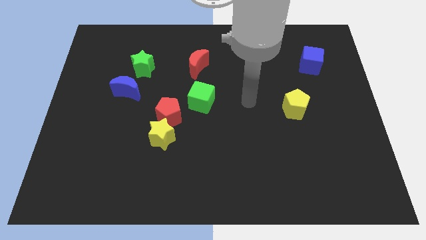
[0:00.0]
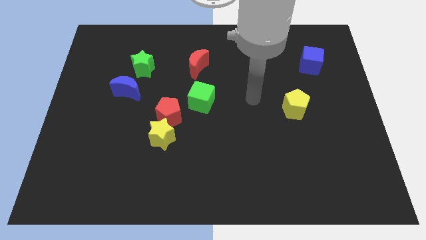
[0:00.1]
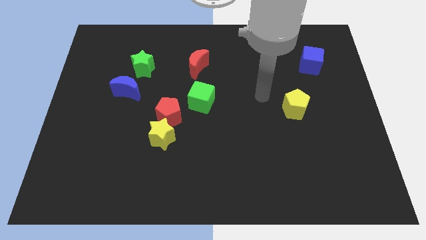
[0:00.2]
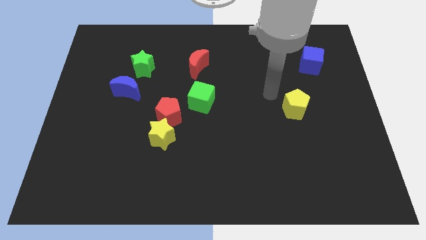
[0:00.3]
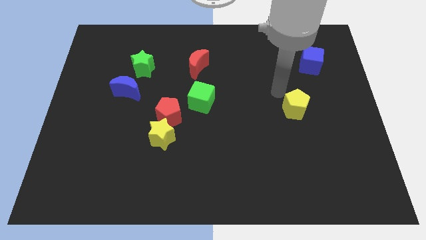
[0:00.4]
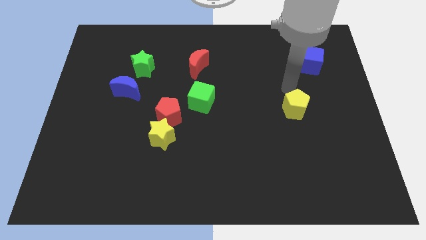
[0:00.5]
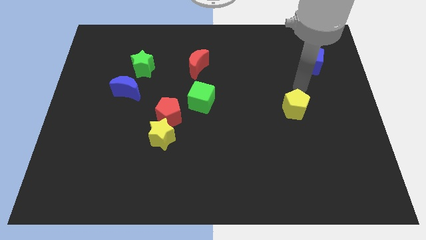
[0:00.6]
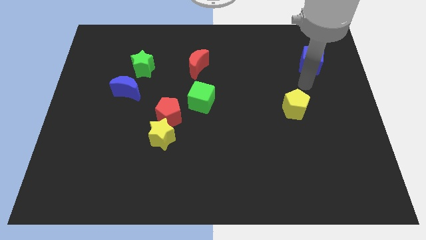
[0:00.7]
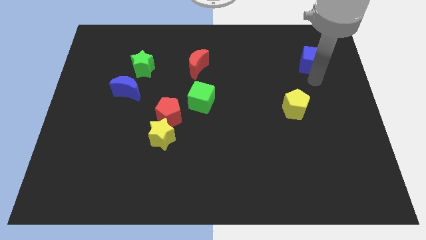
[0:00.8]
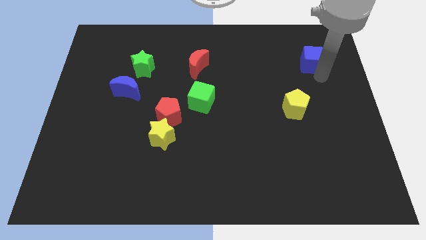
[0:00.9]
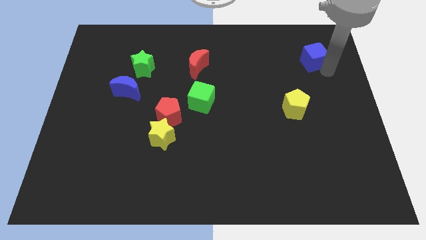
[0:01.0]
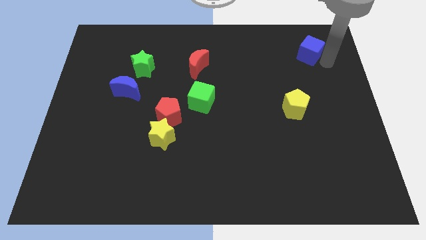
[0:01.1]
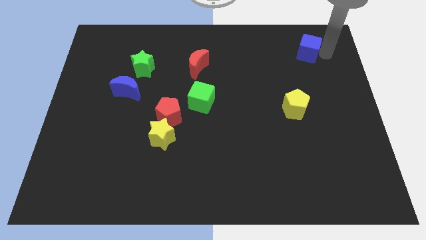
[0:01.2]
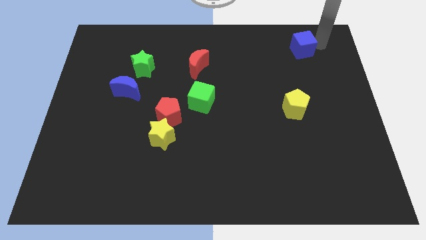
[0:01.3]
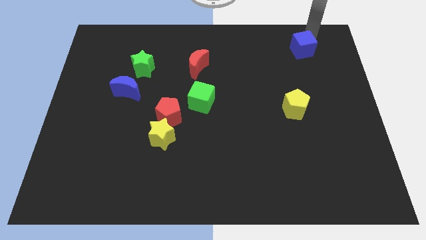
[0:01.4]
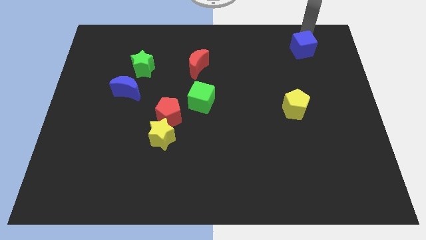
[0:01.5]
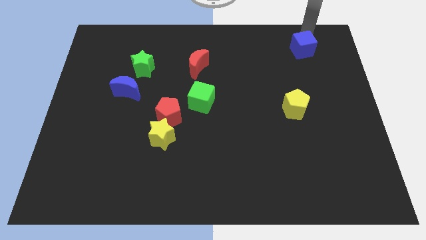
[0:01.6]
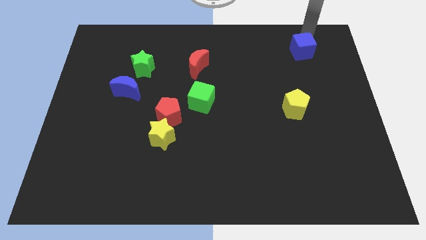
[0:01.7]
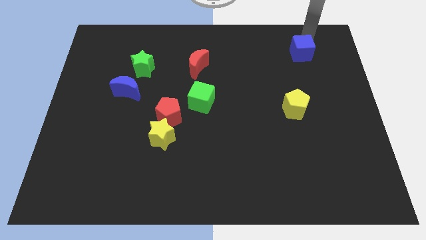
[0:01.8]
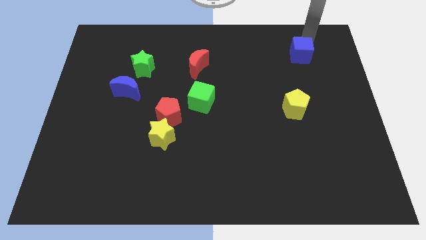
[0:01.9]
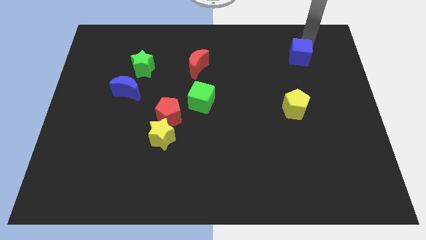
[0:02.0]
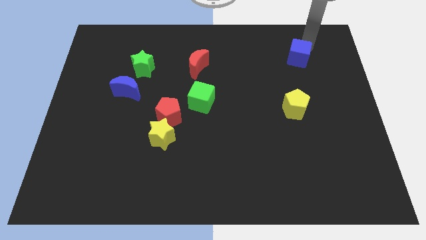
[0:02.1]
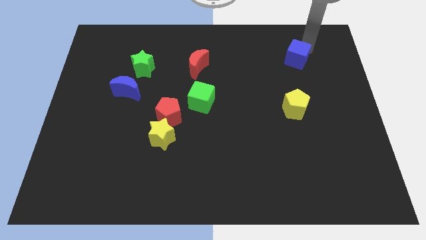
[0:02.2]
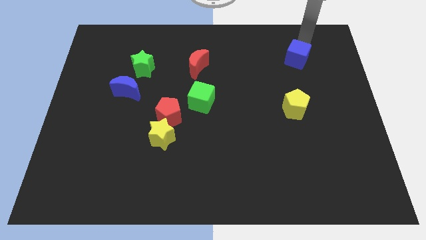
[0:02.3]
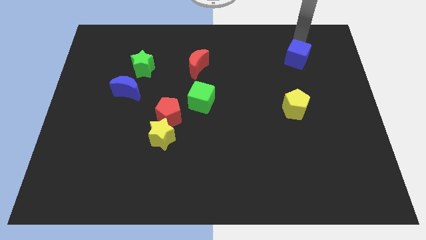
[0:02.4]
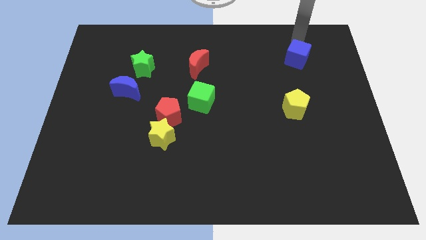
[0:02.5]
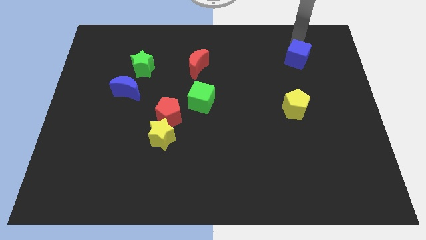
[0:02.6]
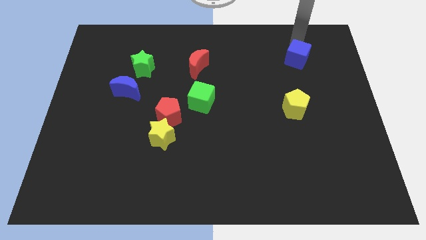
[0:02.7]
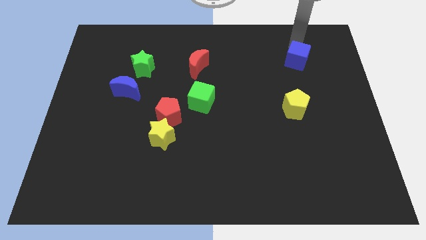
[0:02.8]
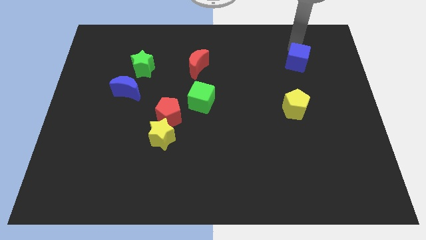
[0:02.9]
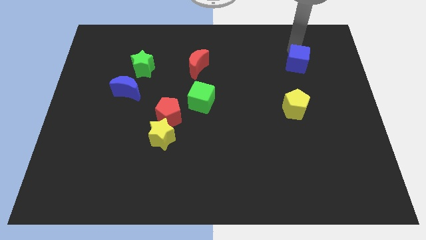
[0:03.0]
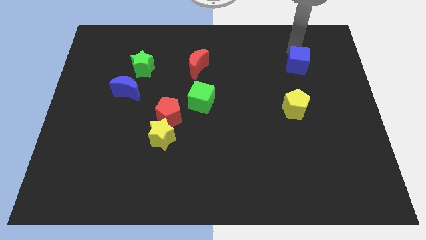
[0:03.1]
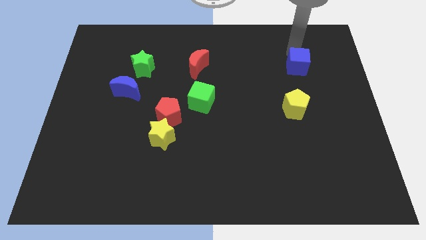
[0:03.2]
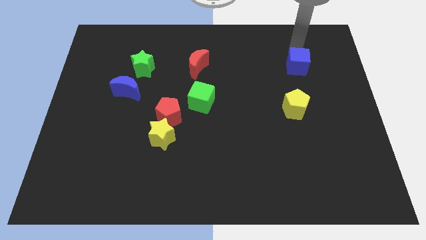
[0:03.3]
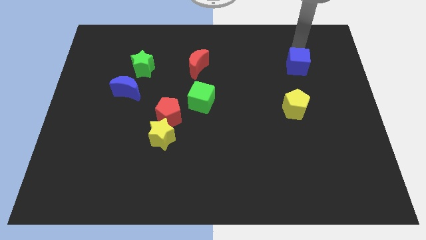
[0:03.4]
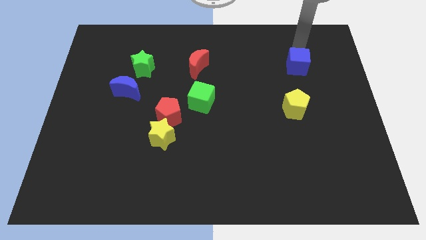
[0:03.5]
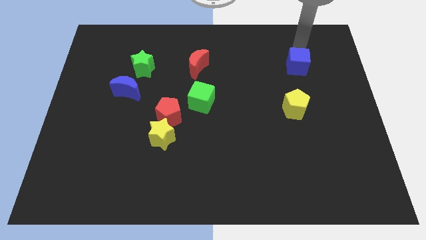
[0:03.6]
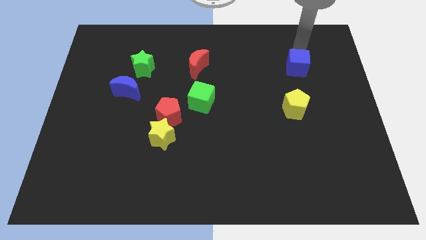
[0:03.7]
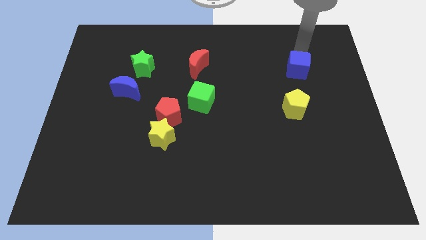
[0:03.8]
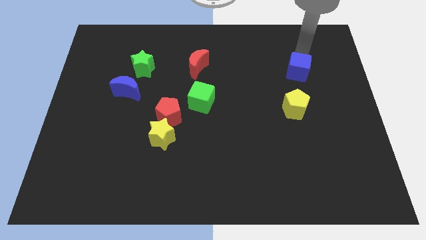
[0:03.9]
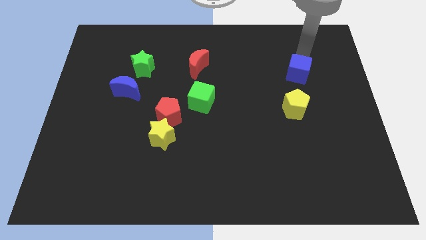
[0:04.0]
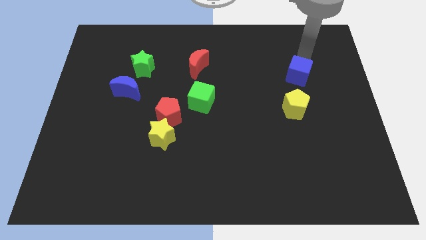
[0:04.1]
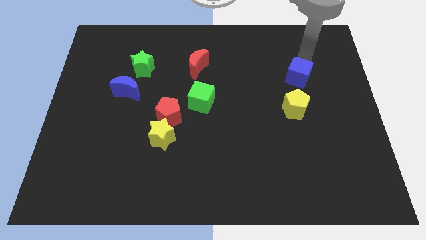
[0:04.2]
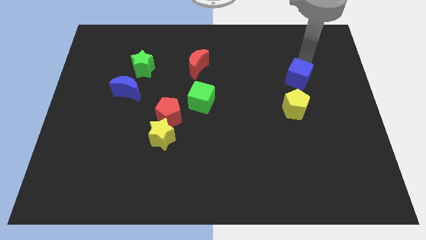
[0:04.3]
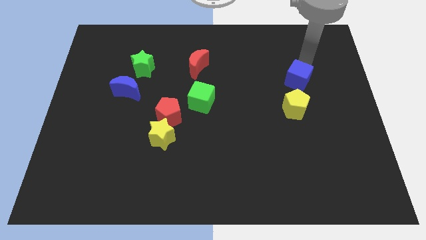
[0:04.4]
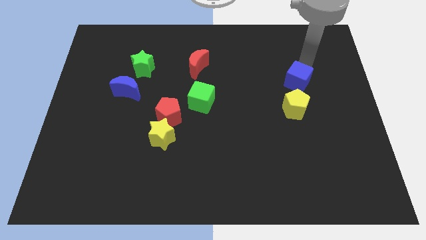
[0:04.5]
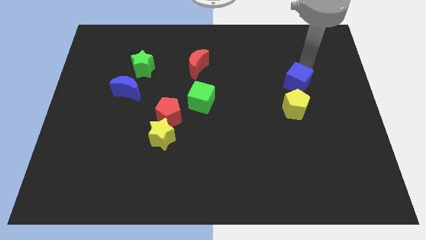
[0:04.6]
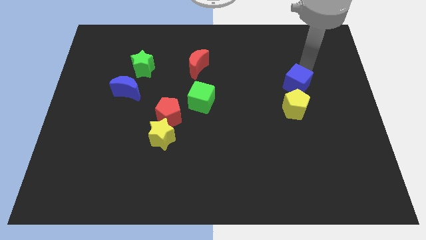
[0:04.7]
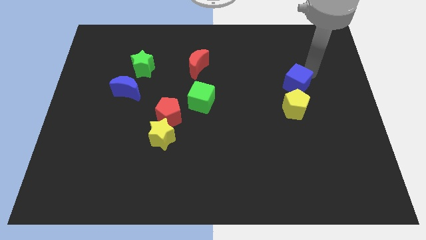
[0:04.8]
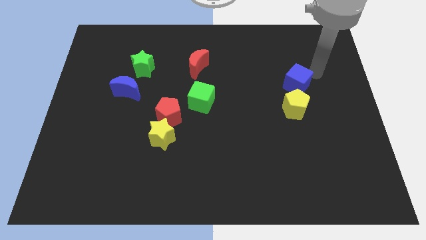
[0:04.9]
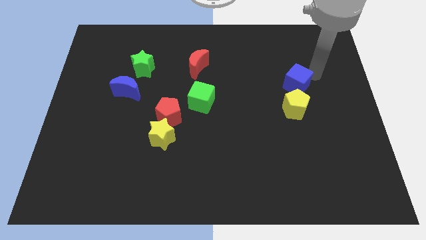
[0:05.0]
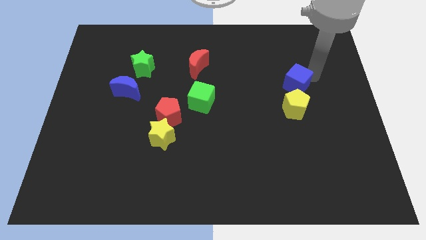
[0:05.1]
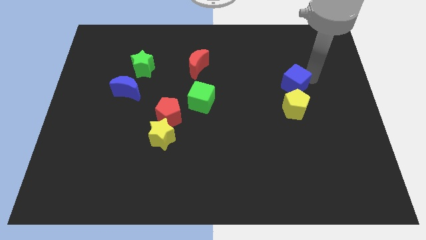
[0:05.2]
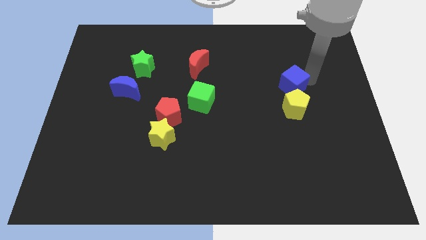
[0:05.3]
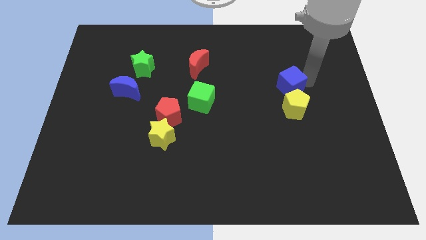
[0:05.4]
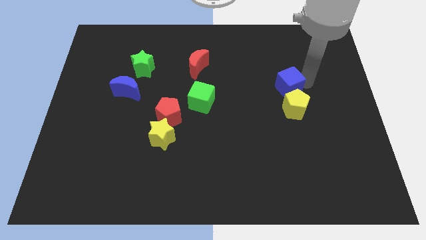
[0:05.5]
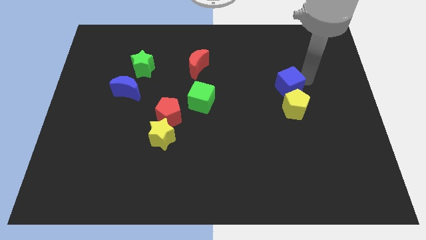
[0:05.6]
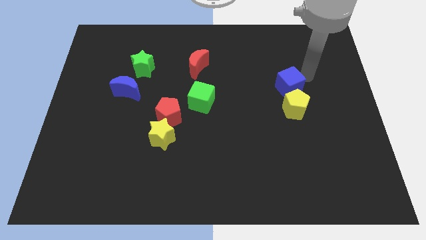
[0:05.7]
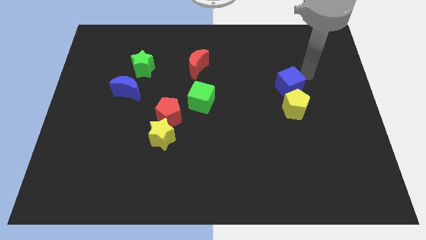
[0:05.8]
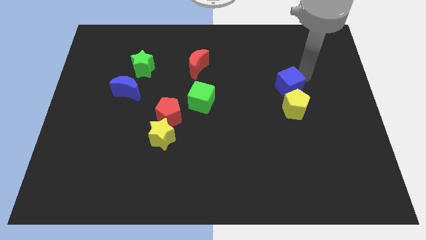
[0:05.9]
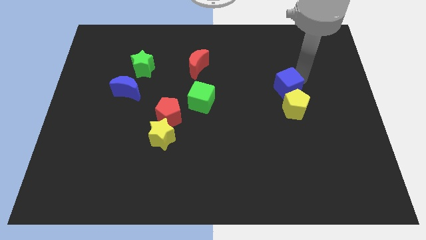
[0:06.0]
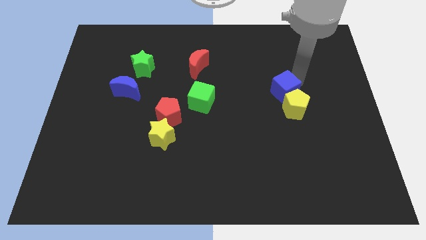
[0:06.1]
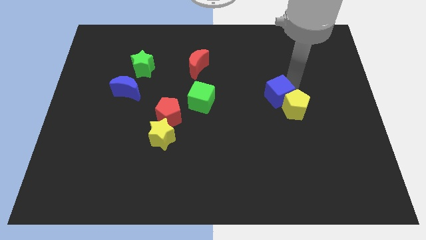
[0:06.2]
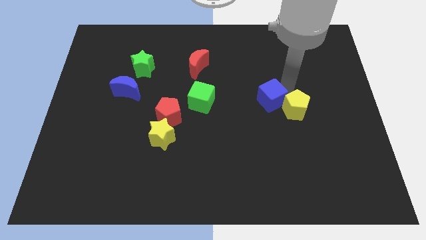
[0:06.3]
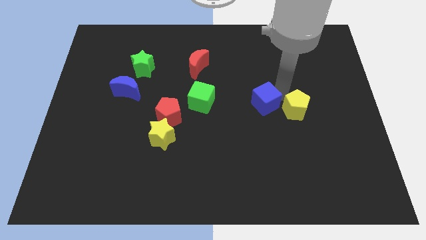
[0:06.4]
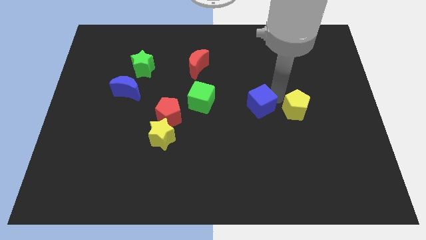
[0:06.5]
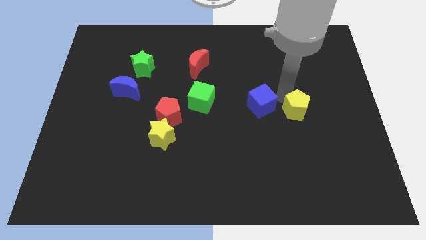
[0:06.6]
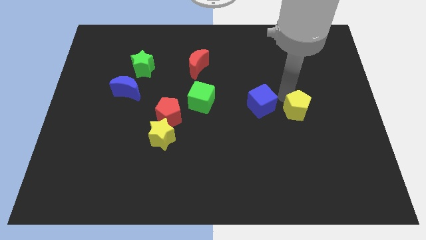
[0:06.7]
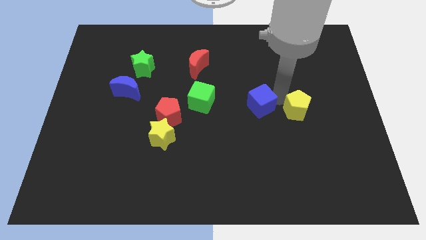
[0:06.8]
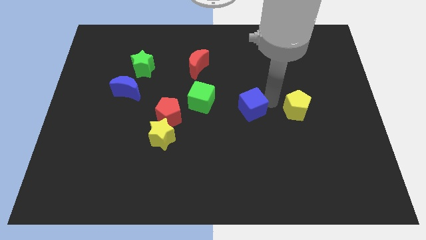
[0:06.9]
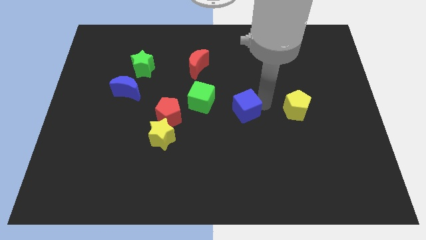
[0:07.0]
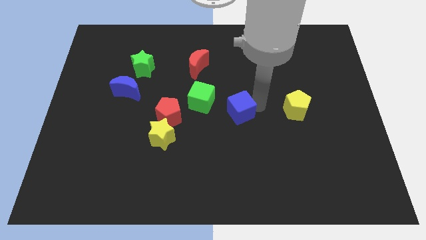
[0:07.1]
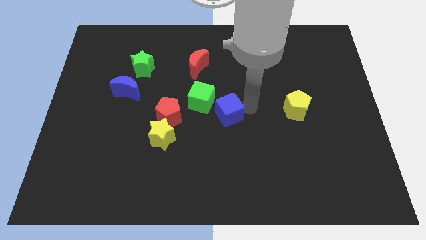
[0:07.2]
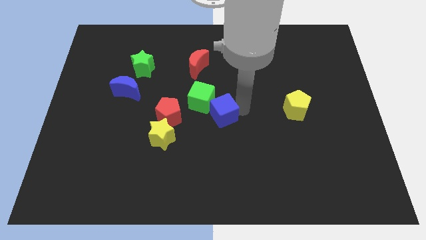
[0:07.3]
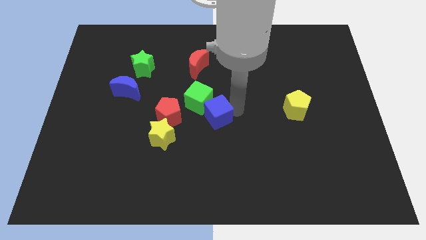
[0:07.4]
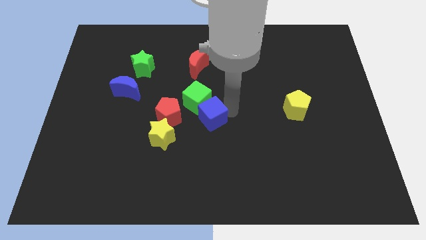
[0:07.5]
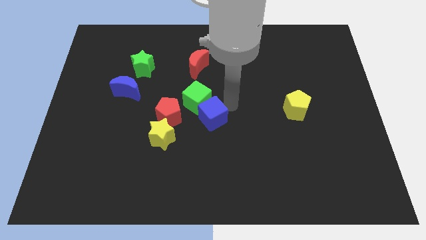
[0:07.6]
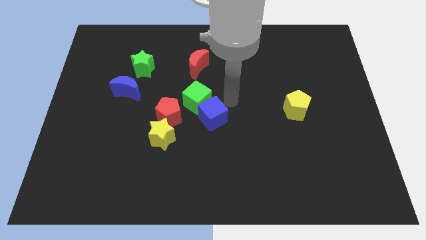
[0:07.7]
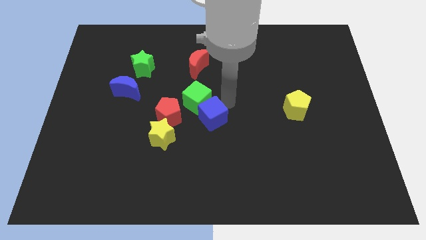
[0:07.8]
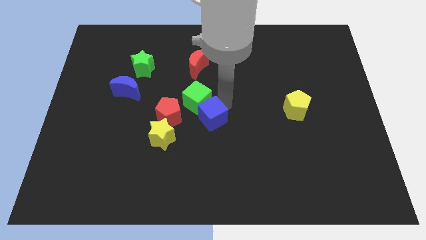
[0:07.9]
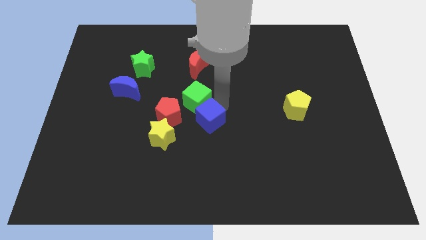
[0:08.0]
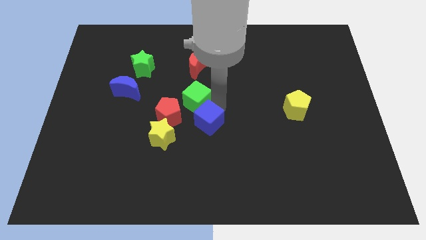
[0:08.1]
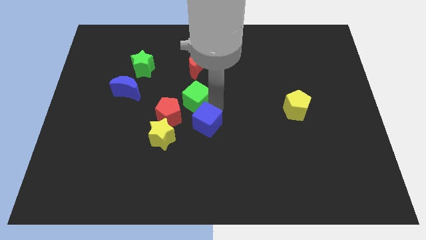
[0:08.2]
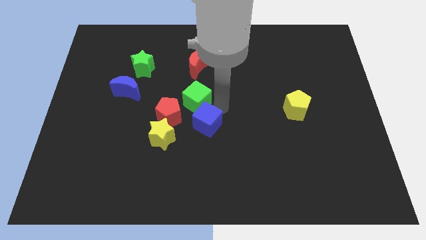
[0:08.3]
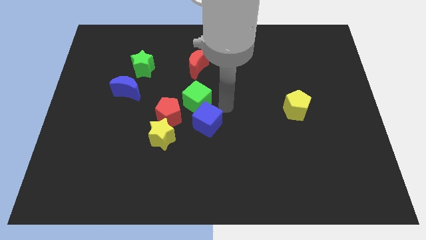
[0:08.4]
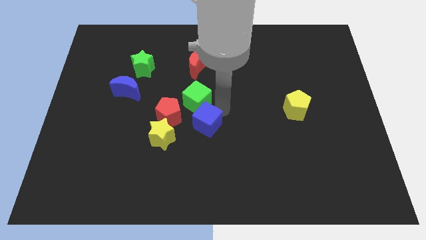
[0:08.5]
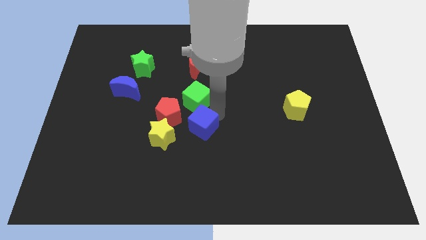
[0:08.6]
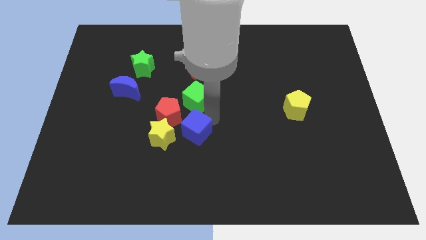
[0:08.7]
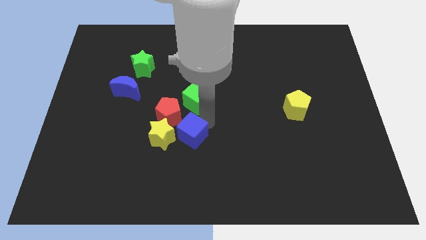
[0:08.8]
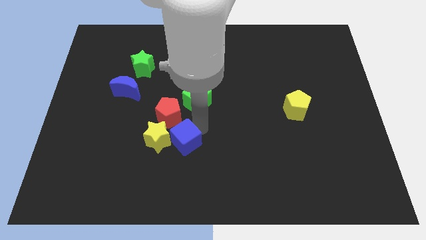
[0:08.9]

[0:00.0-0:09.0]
slide the blue cube below the red pentagon
